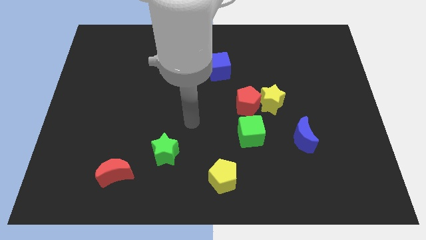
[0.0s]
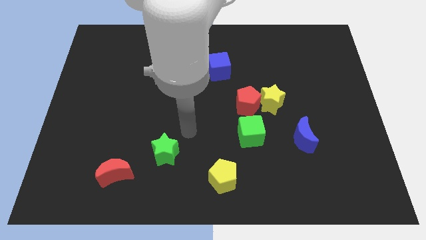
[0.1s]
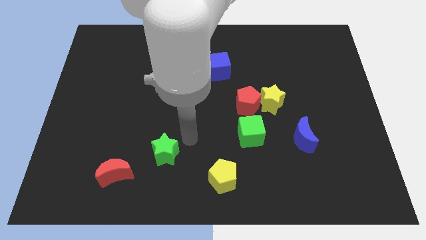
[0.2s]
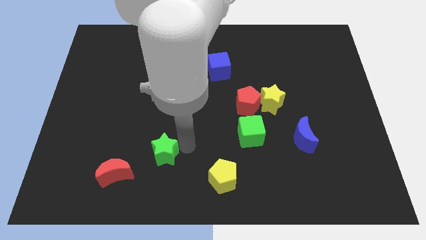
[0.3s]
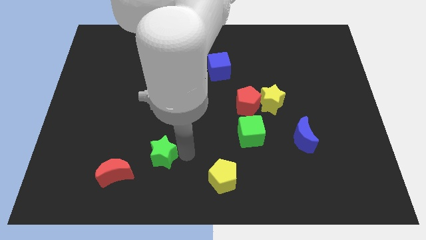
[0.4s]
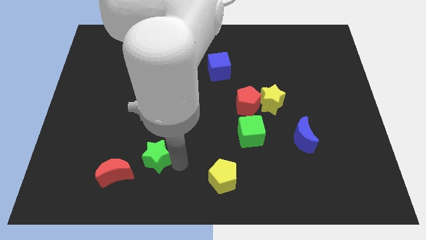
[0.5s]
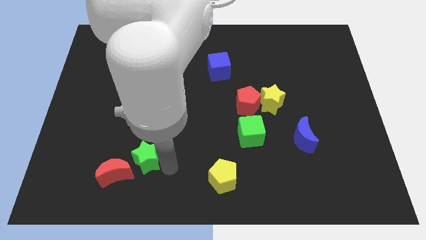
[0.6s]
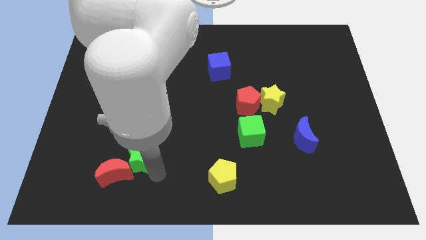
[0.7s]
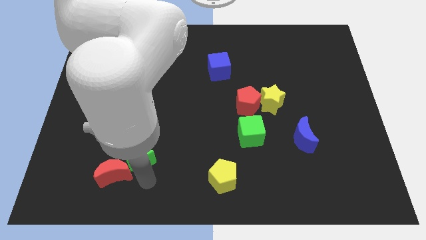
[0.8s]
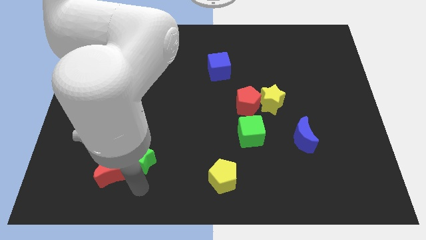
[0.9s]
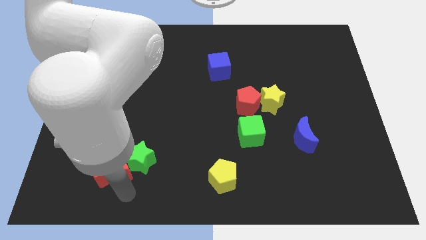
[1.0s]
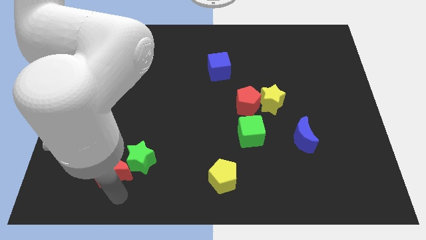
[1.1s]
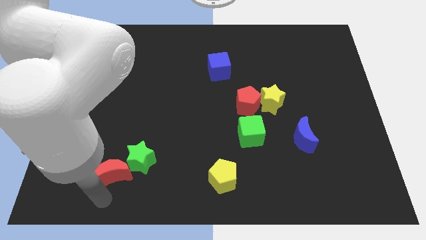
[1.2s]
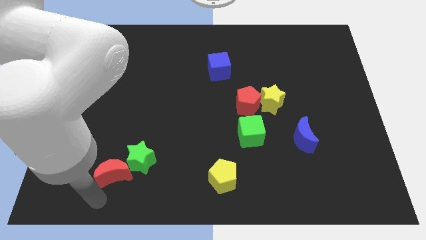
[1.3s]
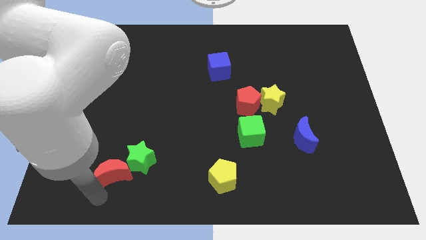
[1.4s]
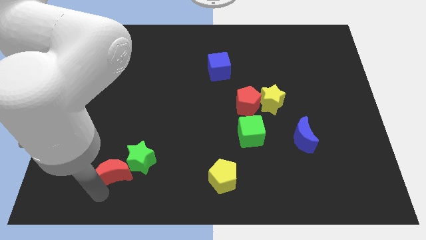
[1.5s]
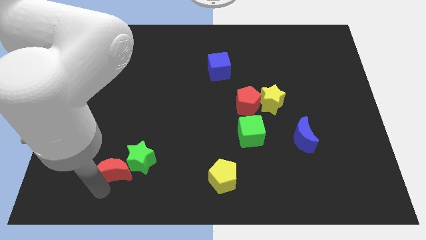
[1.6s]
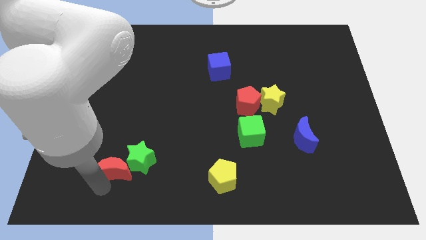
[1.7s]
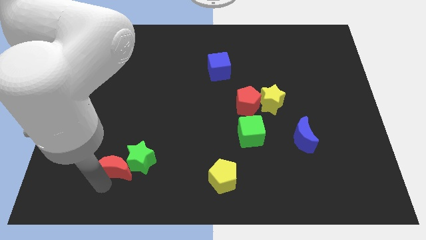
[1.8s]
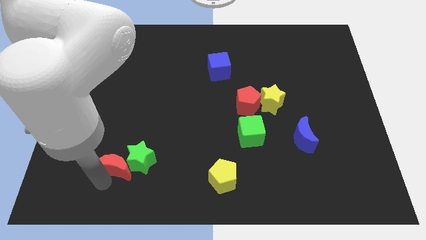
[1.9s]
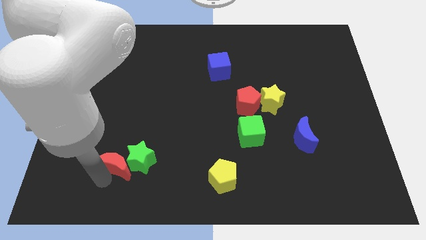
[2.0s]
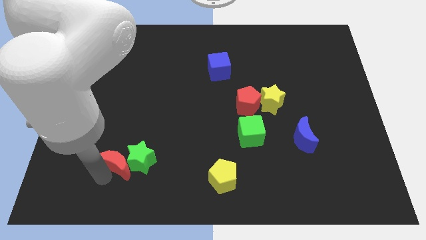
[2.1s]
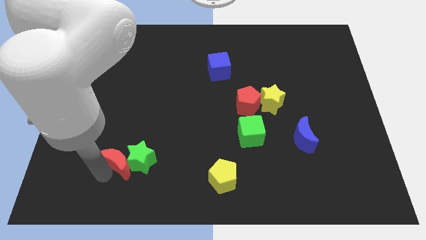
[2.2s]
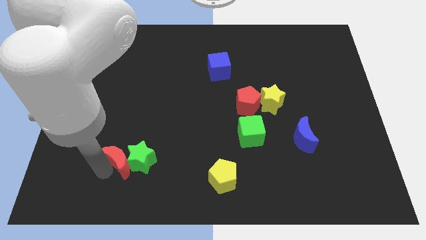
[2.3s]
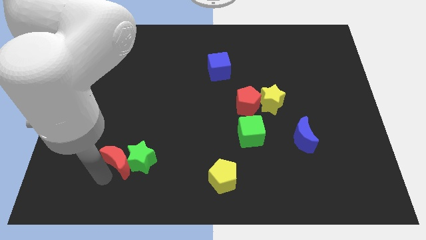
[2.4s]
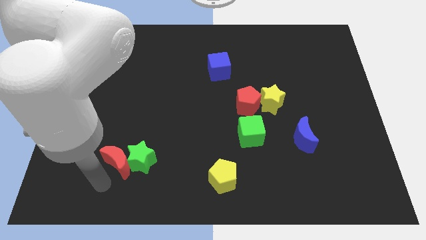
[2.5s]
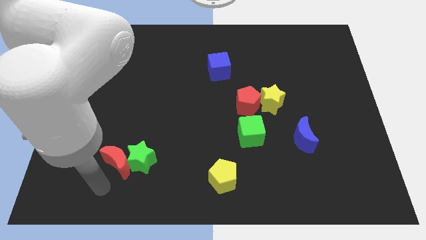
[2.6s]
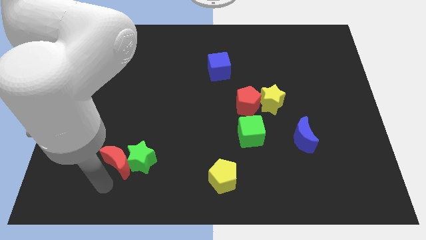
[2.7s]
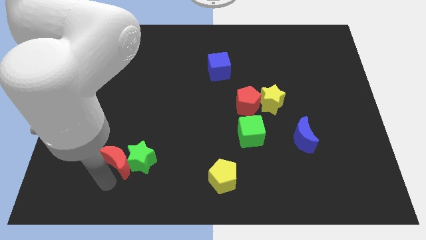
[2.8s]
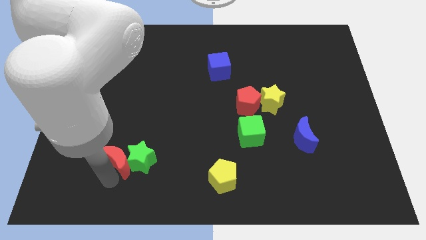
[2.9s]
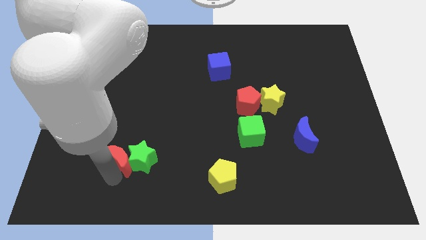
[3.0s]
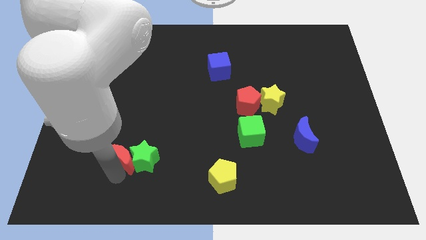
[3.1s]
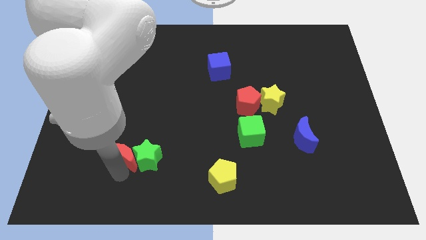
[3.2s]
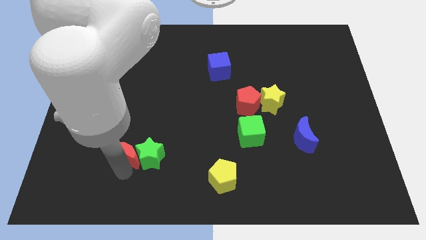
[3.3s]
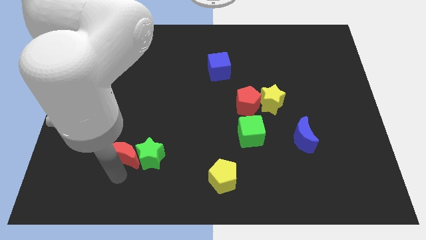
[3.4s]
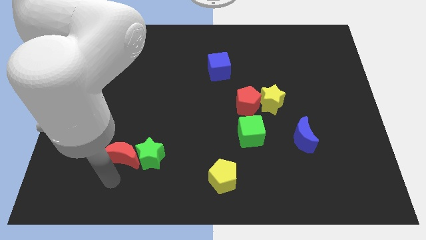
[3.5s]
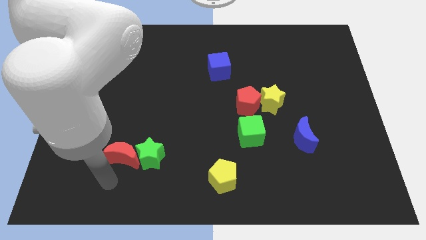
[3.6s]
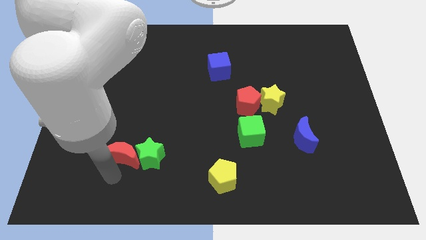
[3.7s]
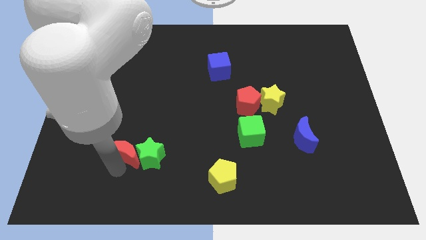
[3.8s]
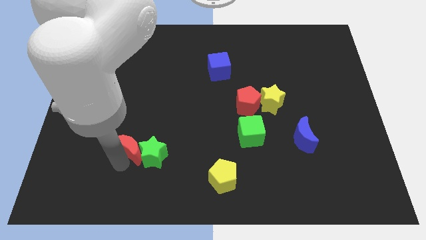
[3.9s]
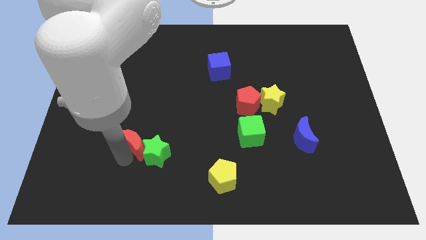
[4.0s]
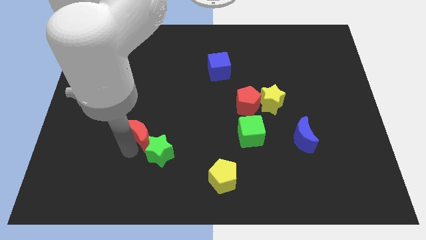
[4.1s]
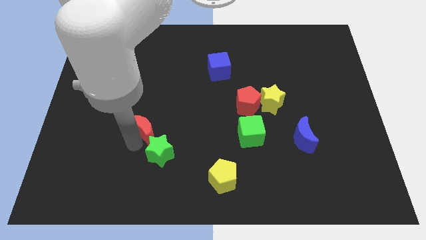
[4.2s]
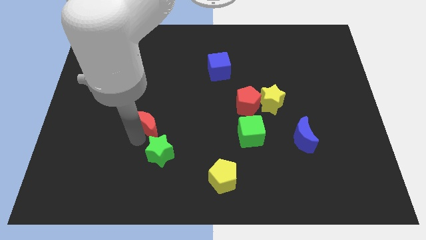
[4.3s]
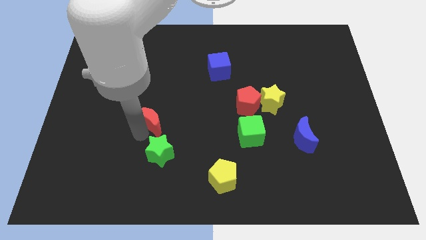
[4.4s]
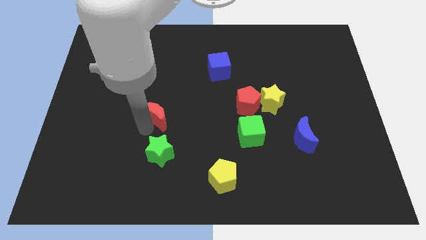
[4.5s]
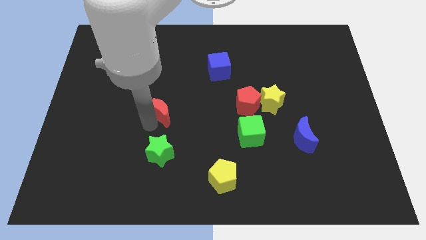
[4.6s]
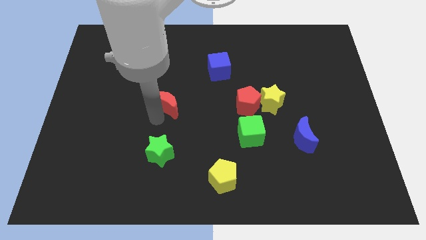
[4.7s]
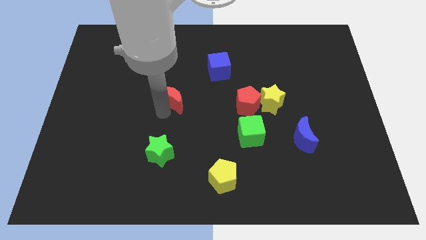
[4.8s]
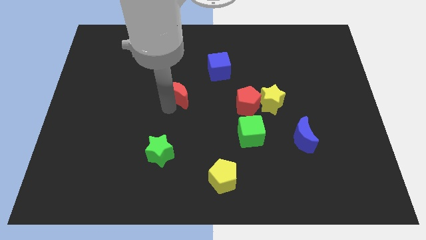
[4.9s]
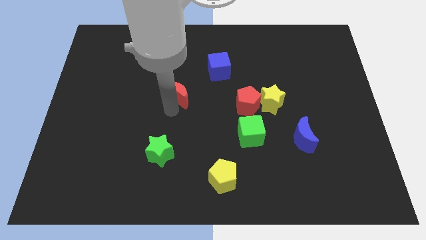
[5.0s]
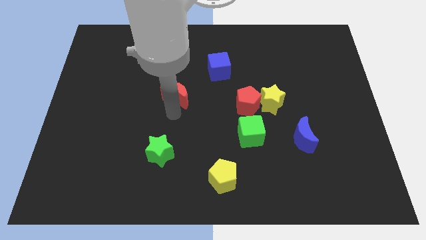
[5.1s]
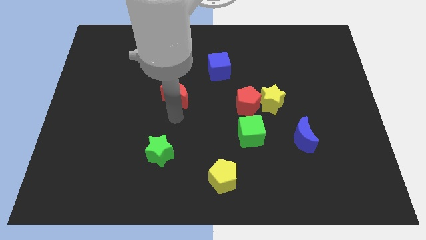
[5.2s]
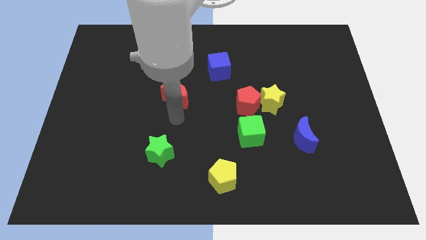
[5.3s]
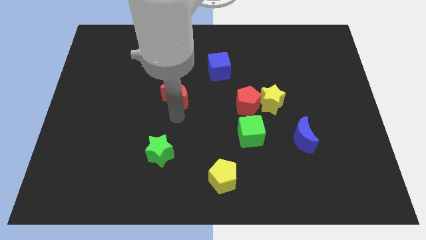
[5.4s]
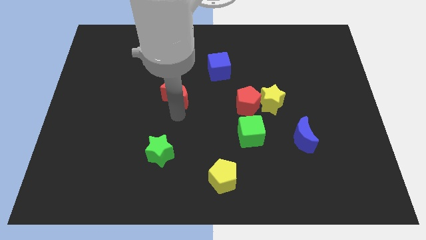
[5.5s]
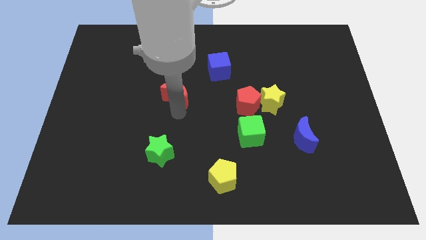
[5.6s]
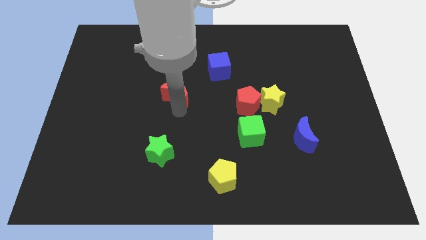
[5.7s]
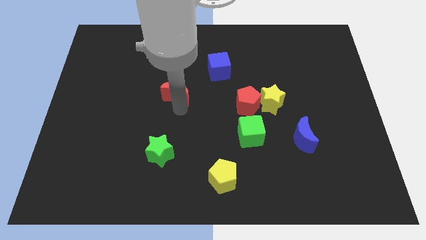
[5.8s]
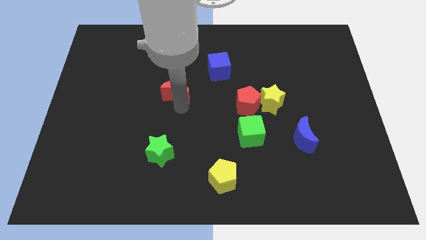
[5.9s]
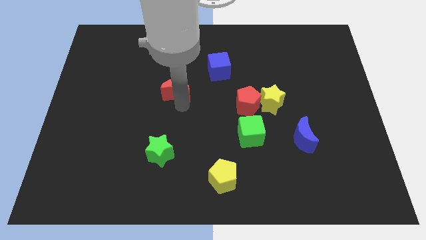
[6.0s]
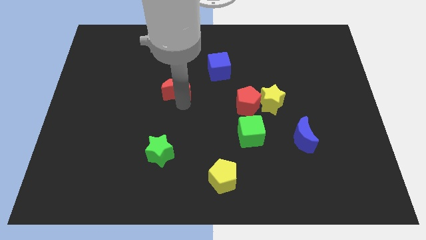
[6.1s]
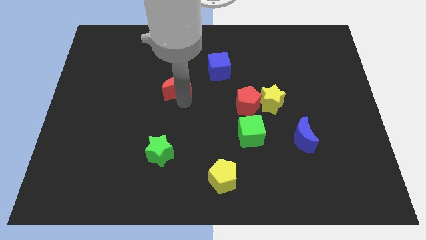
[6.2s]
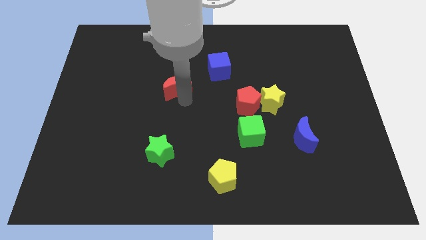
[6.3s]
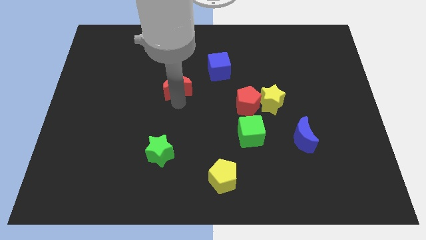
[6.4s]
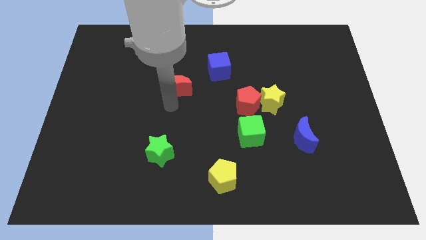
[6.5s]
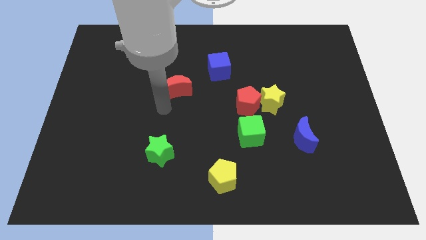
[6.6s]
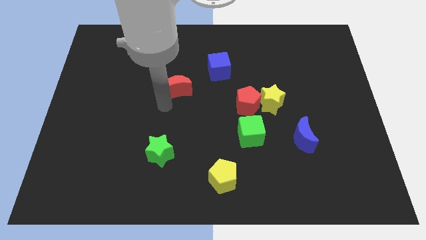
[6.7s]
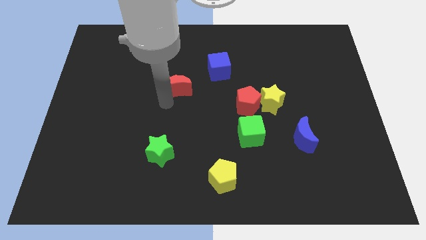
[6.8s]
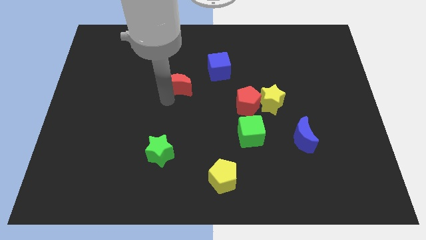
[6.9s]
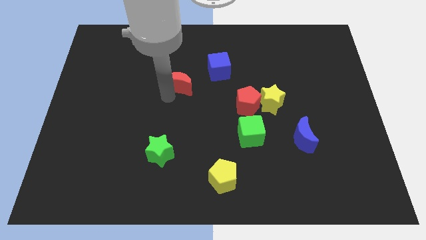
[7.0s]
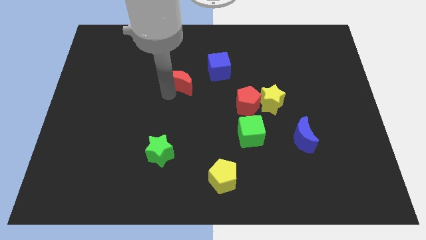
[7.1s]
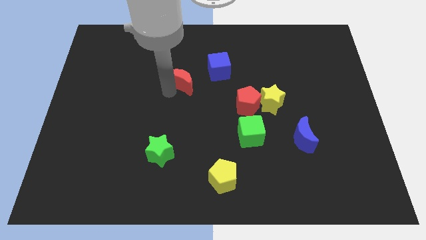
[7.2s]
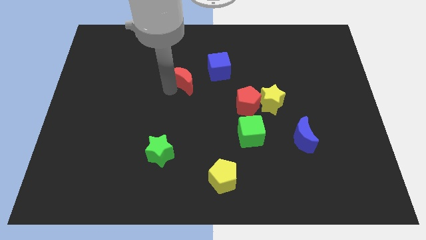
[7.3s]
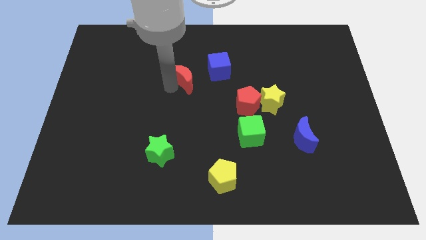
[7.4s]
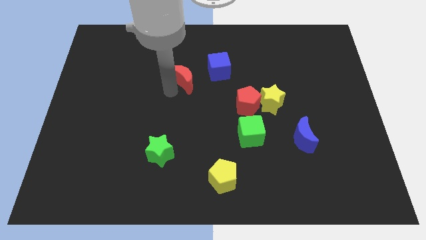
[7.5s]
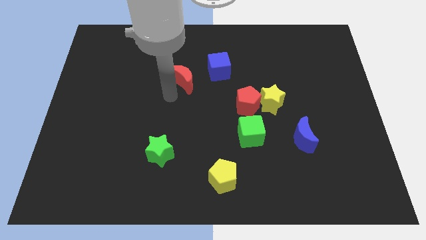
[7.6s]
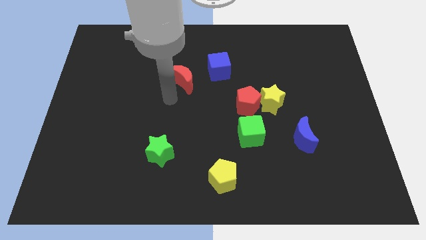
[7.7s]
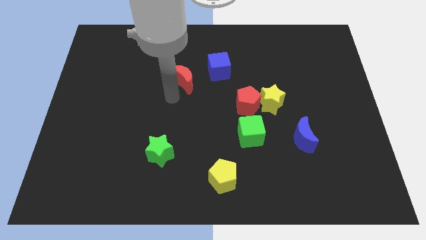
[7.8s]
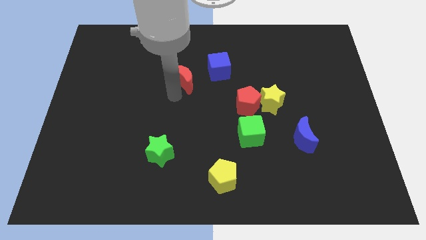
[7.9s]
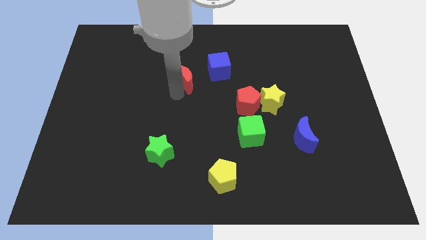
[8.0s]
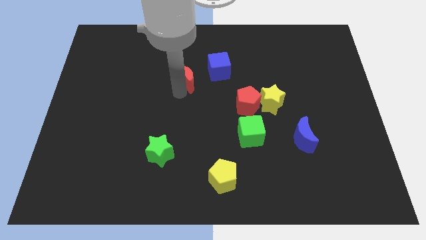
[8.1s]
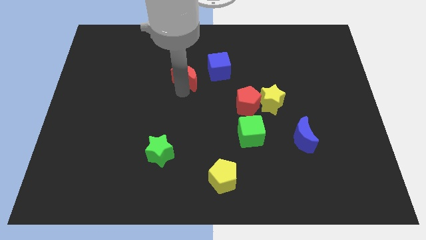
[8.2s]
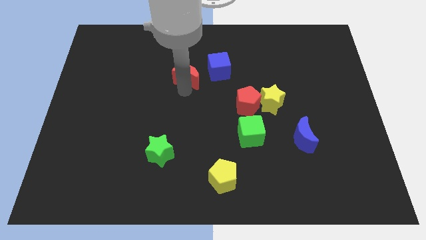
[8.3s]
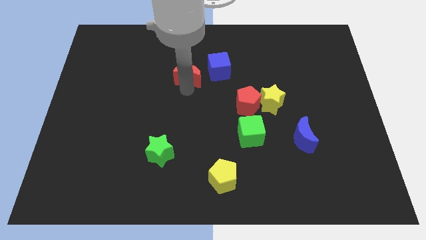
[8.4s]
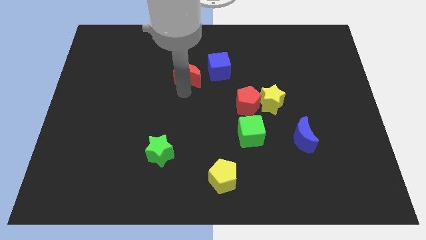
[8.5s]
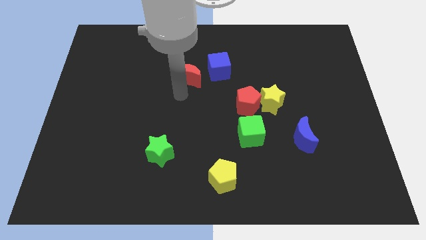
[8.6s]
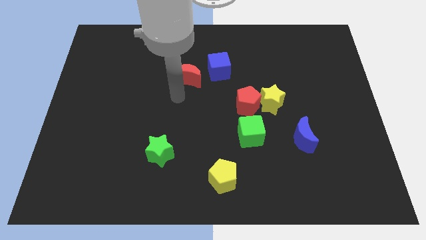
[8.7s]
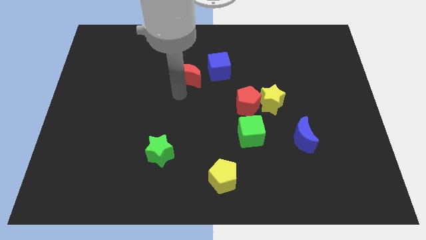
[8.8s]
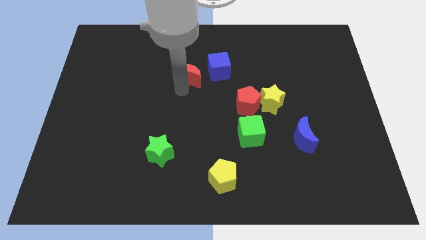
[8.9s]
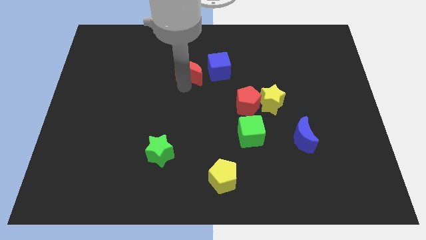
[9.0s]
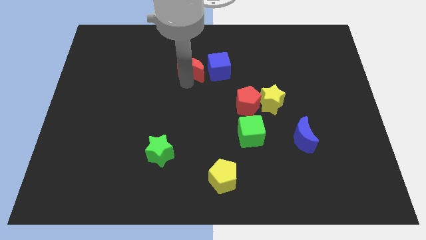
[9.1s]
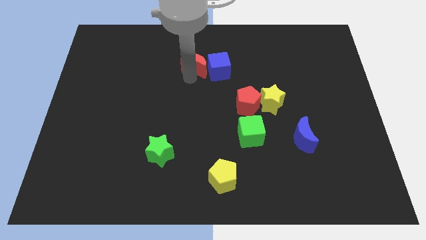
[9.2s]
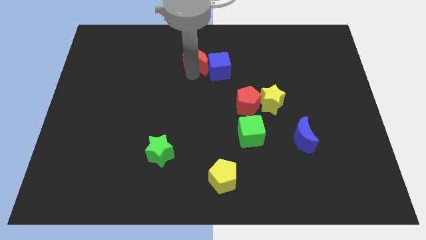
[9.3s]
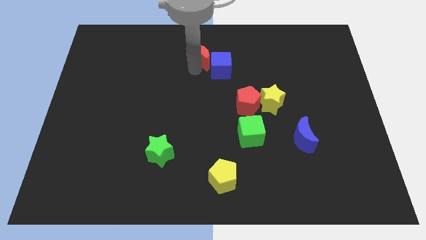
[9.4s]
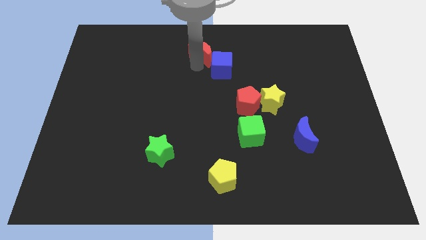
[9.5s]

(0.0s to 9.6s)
slide the red moon to the top
